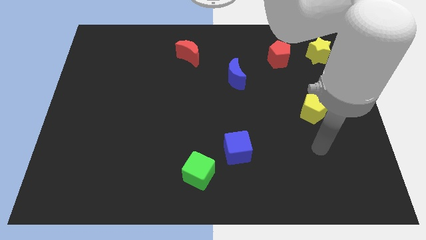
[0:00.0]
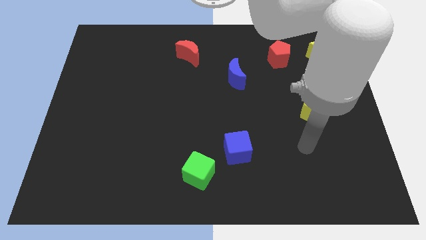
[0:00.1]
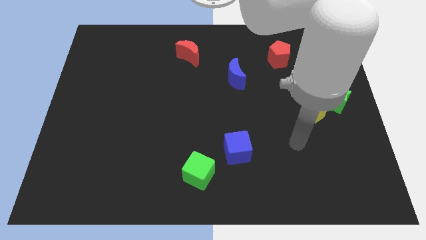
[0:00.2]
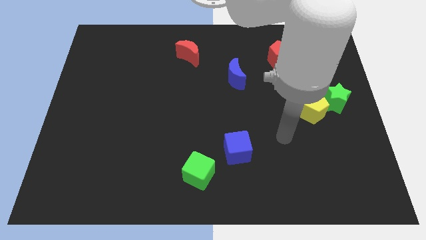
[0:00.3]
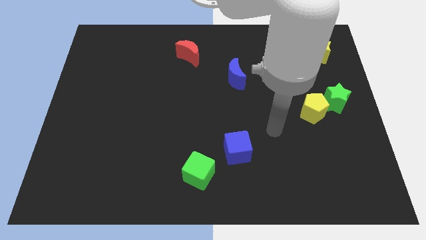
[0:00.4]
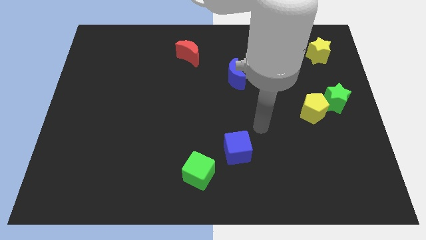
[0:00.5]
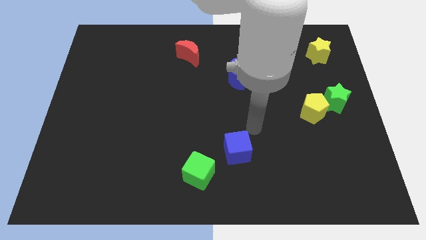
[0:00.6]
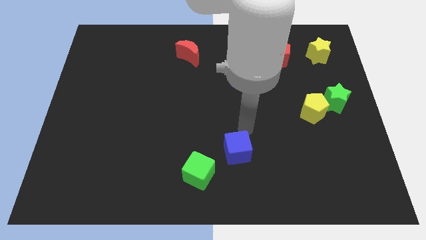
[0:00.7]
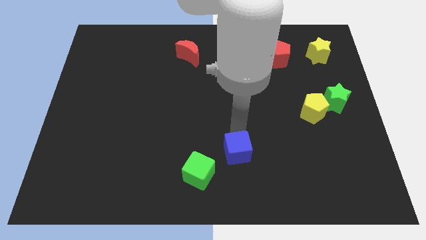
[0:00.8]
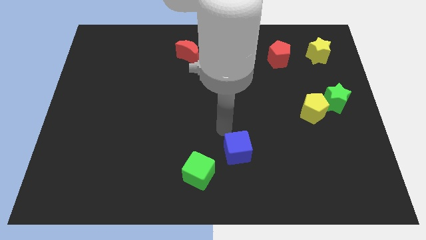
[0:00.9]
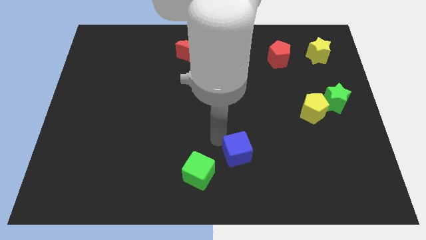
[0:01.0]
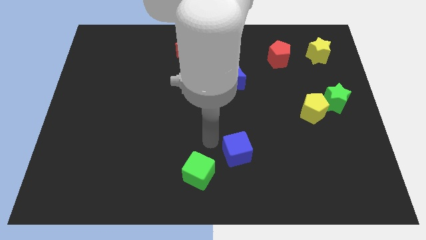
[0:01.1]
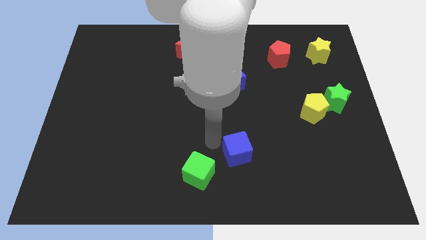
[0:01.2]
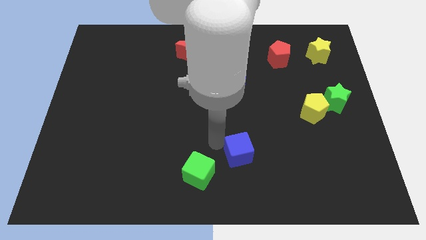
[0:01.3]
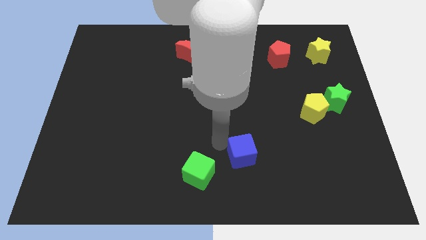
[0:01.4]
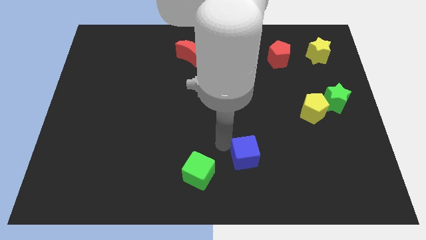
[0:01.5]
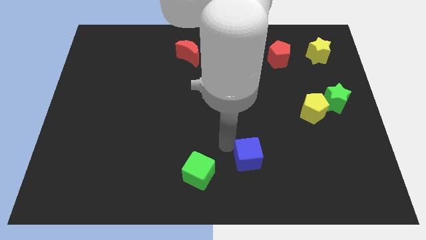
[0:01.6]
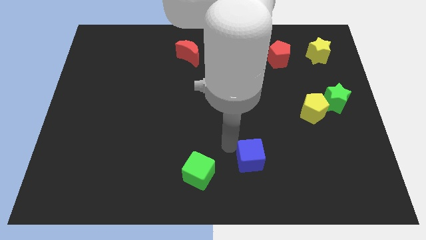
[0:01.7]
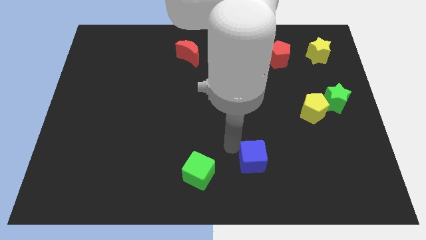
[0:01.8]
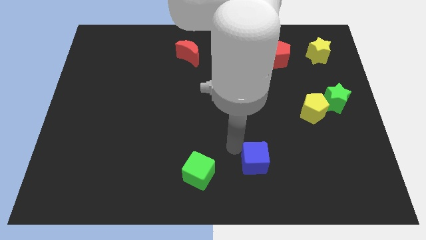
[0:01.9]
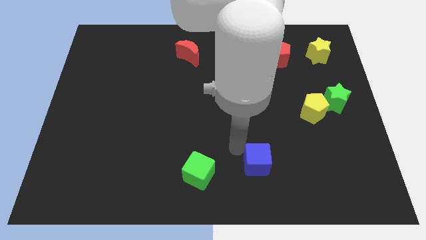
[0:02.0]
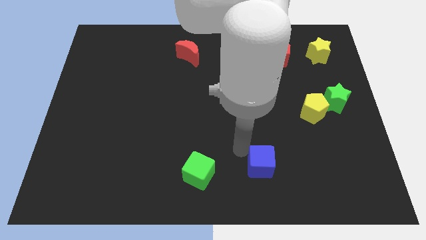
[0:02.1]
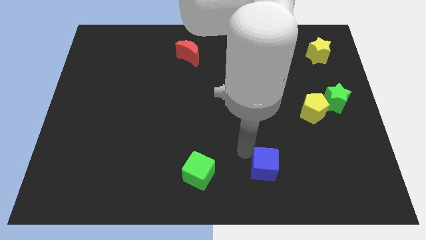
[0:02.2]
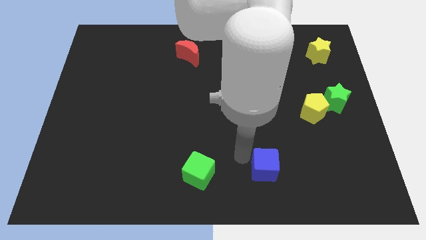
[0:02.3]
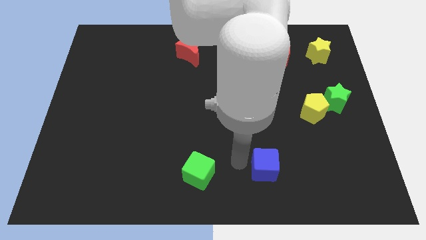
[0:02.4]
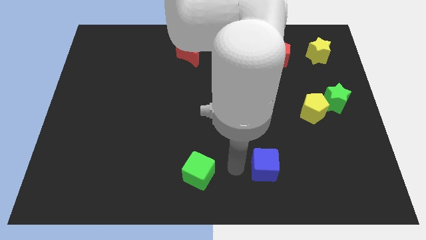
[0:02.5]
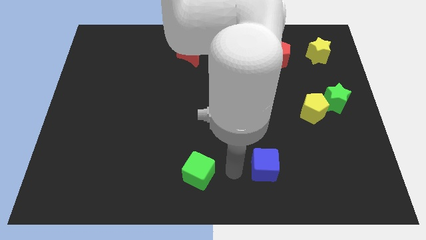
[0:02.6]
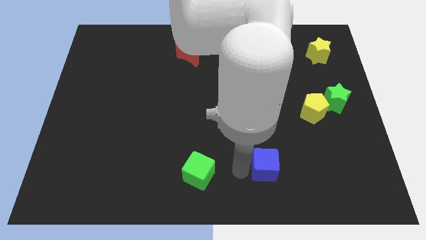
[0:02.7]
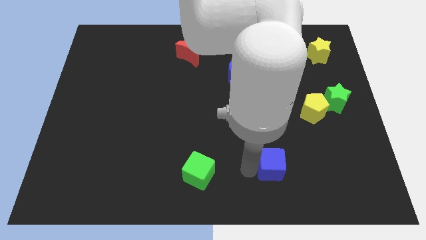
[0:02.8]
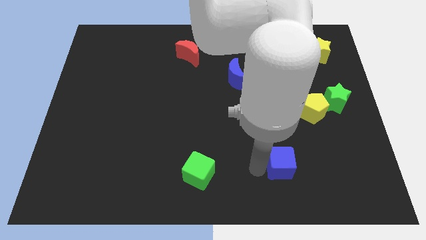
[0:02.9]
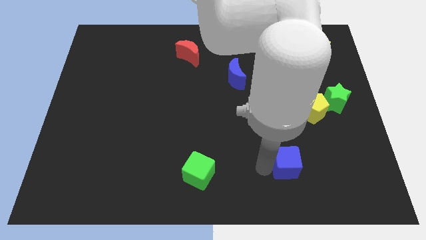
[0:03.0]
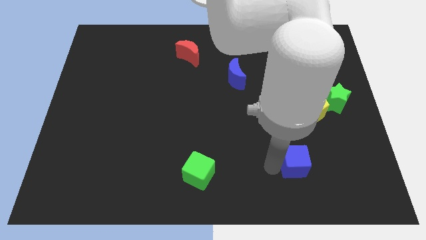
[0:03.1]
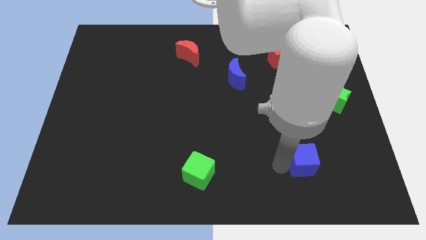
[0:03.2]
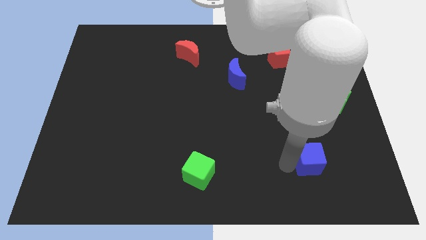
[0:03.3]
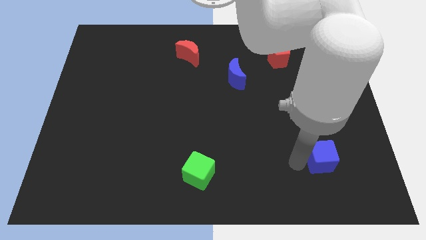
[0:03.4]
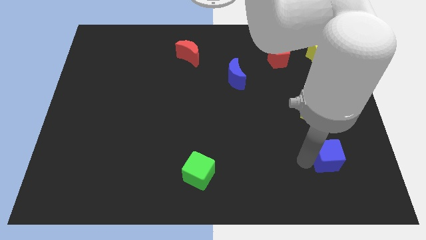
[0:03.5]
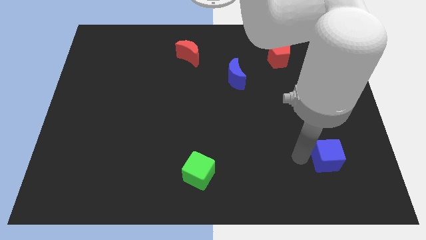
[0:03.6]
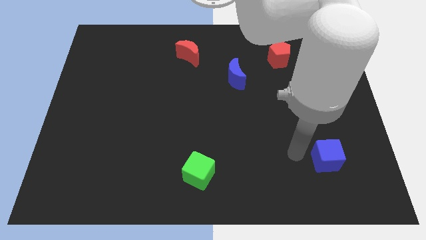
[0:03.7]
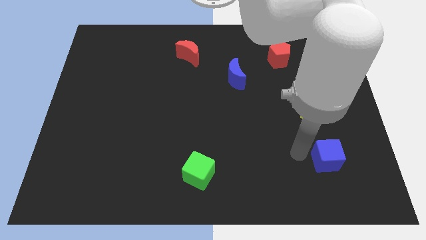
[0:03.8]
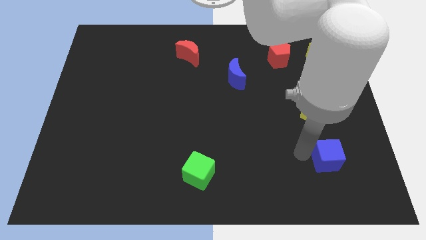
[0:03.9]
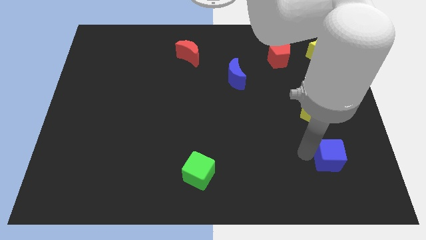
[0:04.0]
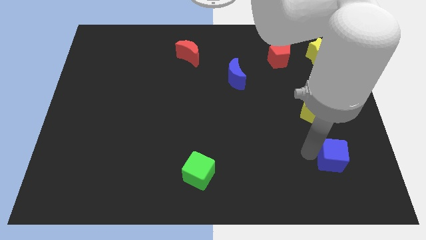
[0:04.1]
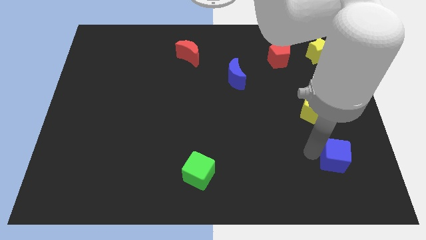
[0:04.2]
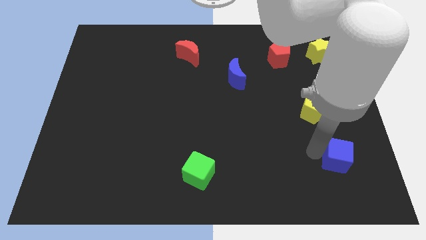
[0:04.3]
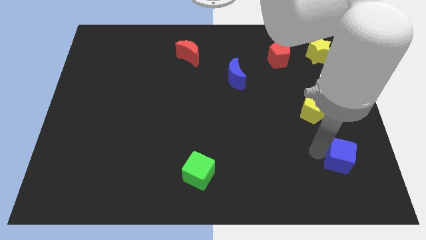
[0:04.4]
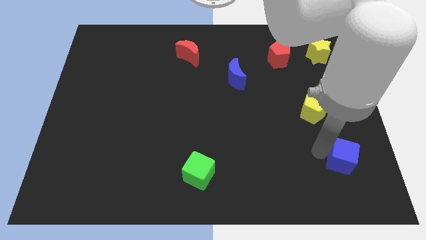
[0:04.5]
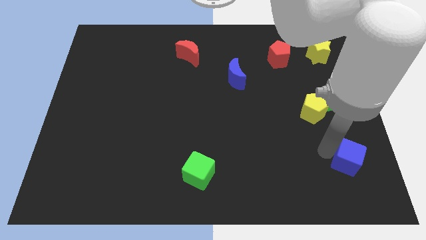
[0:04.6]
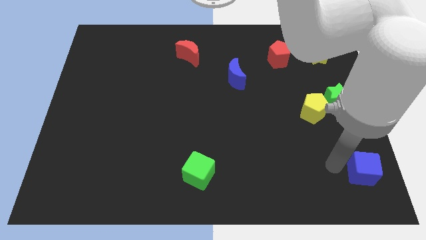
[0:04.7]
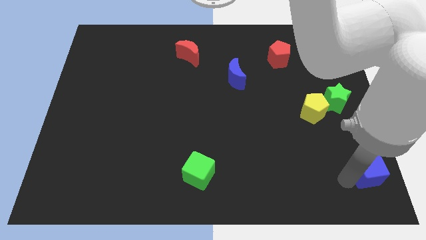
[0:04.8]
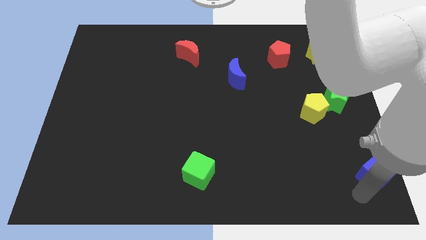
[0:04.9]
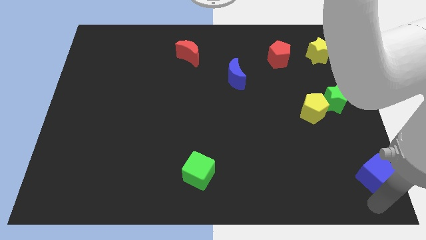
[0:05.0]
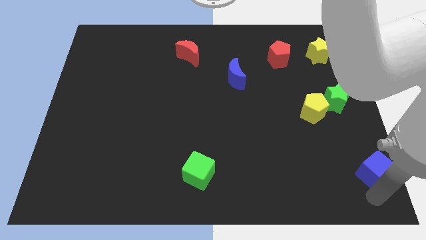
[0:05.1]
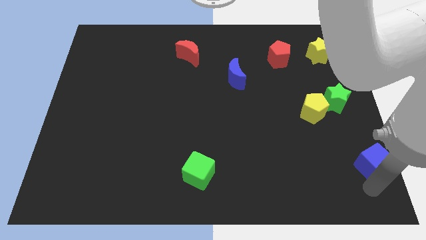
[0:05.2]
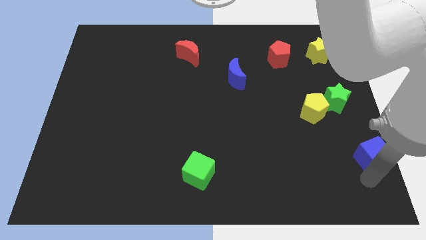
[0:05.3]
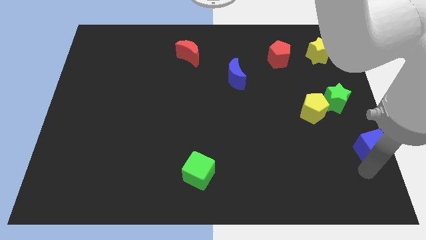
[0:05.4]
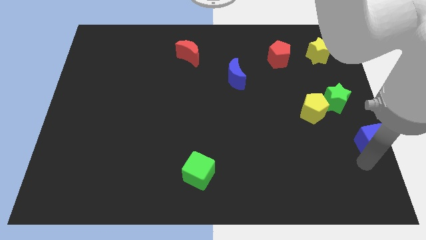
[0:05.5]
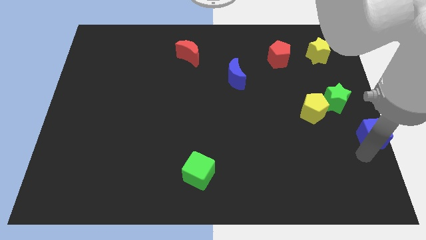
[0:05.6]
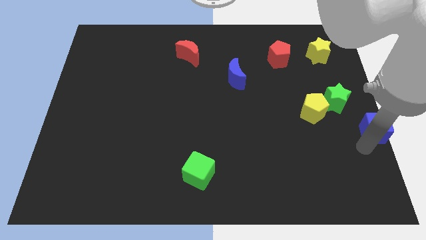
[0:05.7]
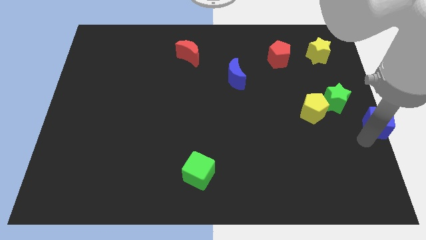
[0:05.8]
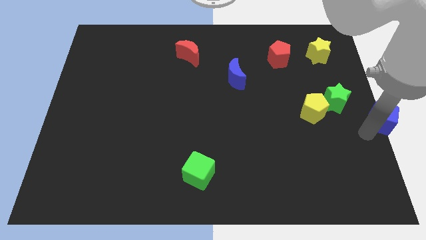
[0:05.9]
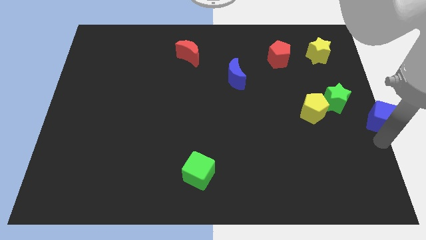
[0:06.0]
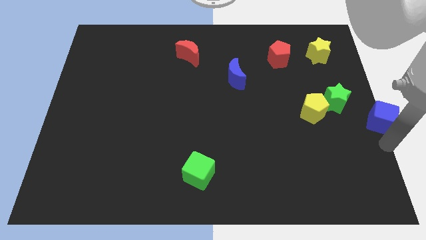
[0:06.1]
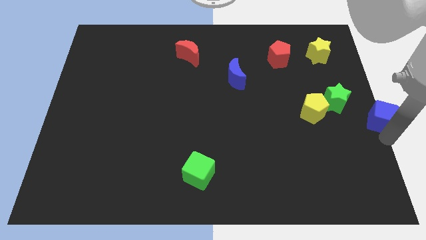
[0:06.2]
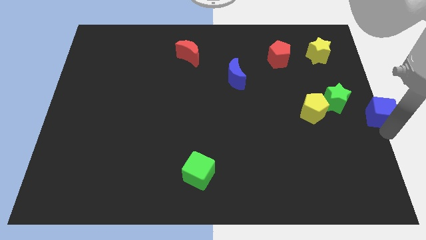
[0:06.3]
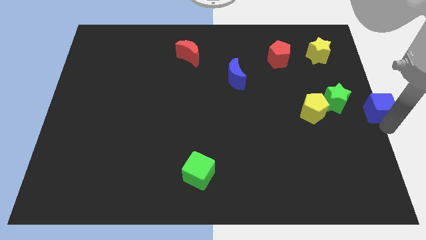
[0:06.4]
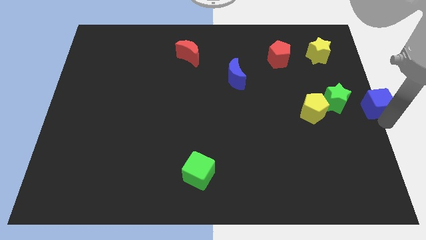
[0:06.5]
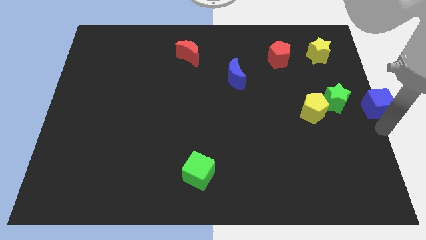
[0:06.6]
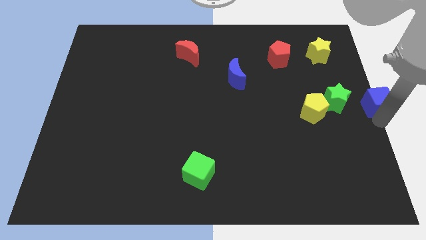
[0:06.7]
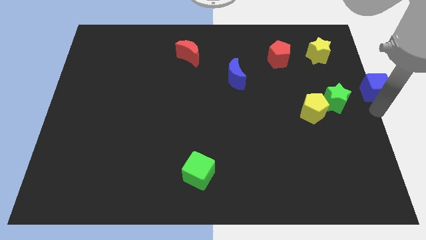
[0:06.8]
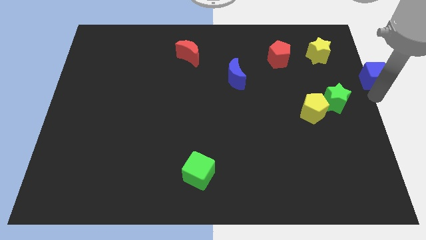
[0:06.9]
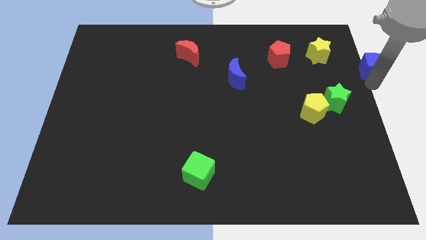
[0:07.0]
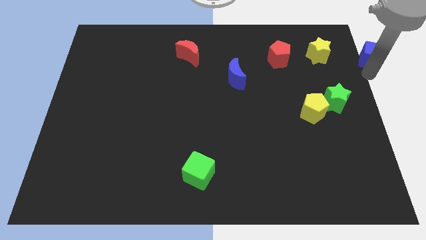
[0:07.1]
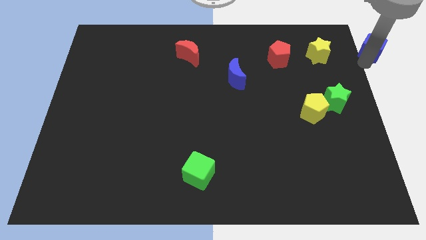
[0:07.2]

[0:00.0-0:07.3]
slide the blue cube to the upper right corner
